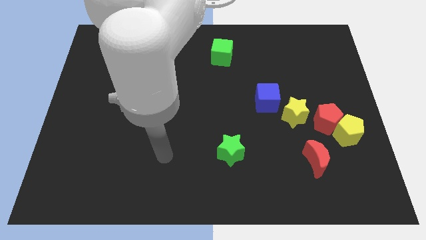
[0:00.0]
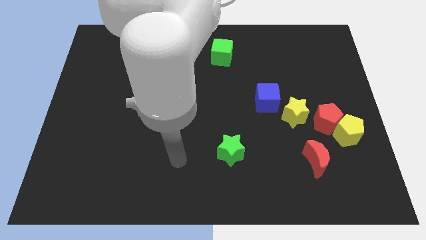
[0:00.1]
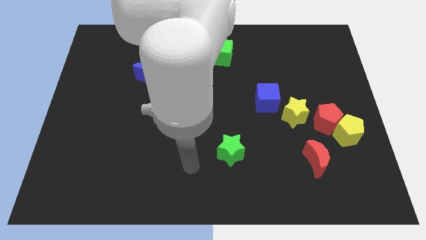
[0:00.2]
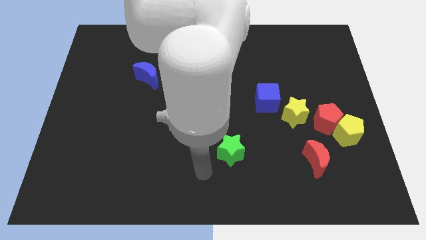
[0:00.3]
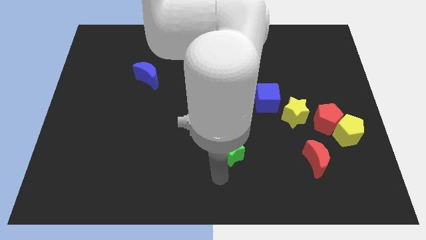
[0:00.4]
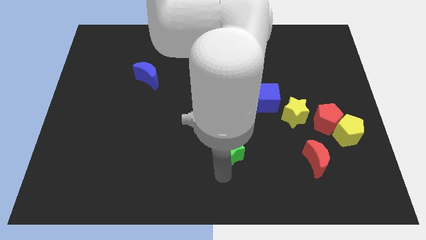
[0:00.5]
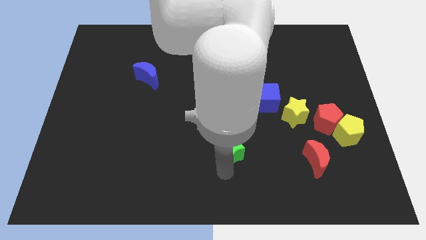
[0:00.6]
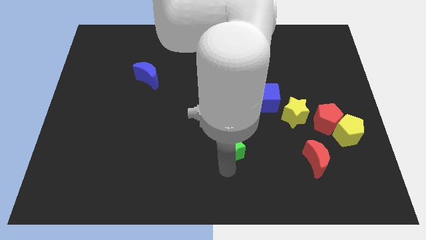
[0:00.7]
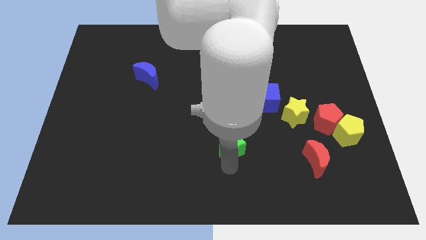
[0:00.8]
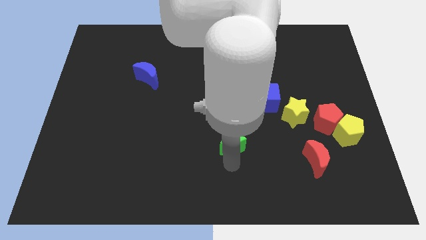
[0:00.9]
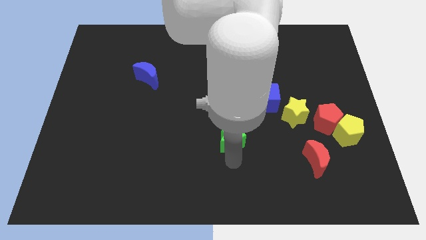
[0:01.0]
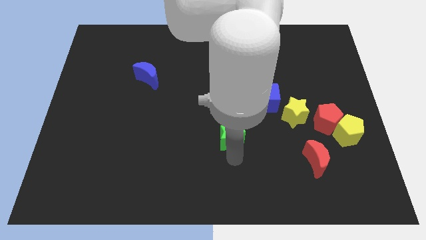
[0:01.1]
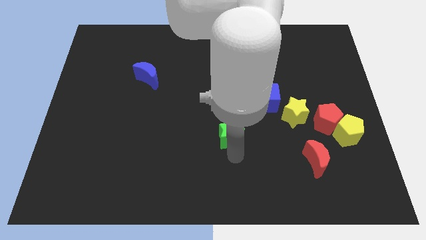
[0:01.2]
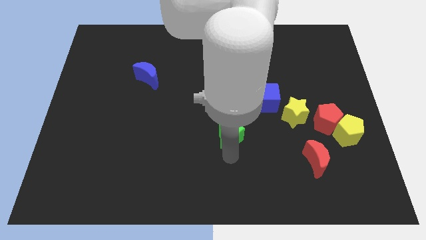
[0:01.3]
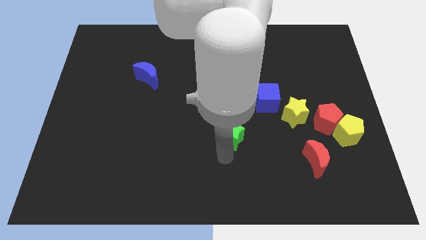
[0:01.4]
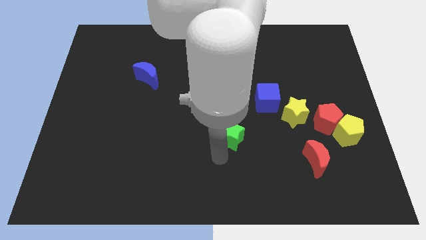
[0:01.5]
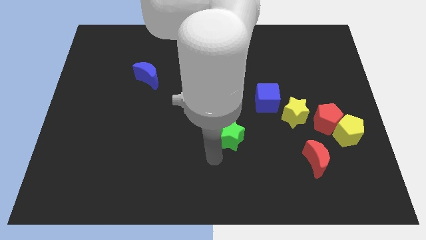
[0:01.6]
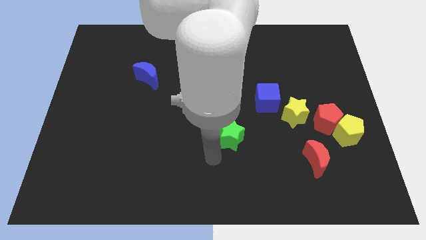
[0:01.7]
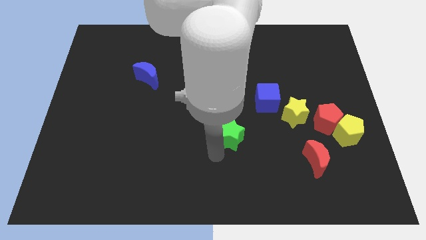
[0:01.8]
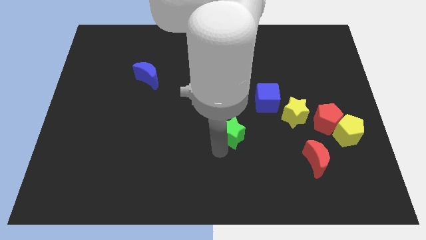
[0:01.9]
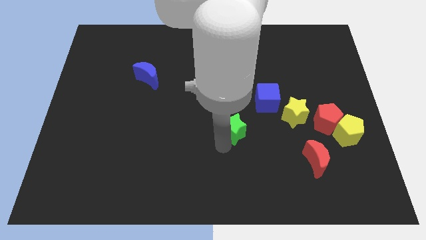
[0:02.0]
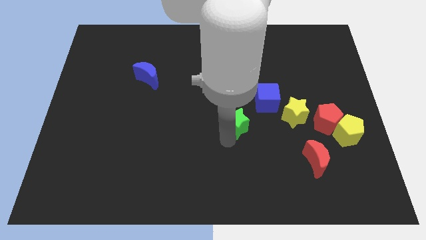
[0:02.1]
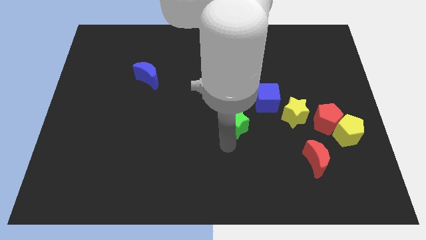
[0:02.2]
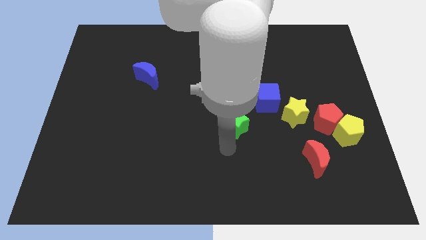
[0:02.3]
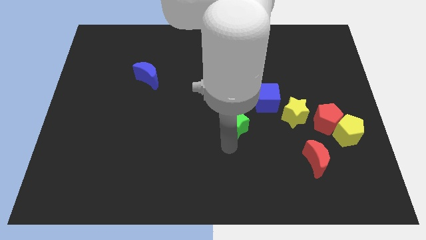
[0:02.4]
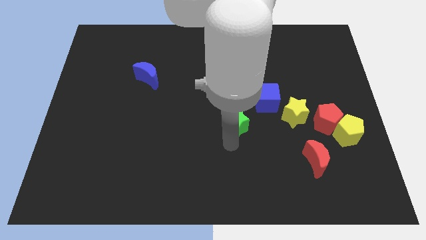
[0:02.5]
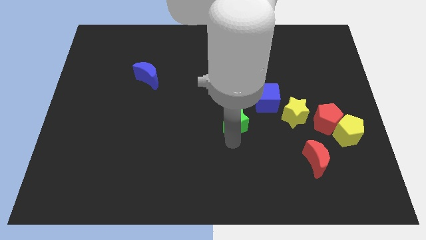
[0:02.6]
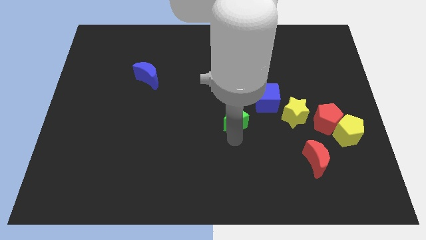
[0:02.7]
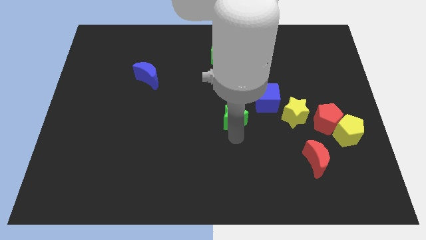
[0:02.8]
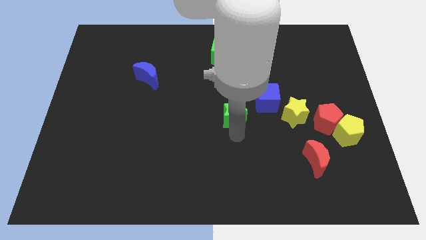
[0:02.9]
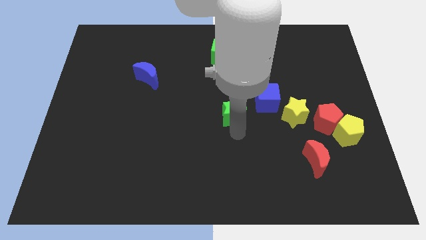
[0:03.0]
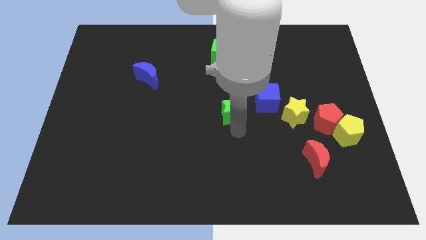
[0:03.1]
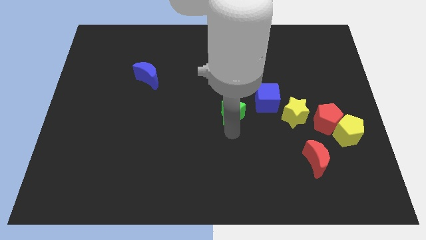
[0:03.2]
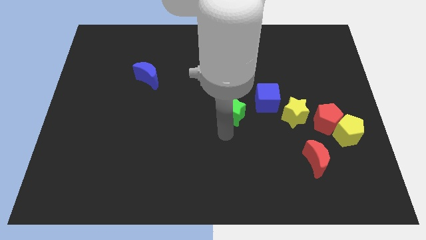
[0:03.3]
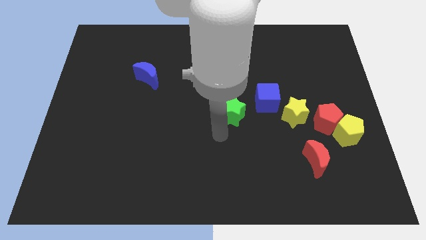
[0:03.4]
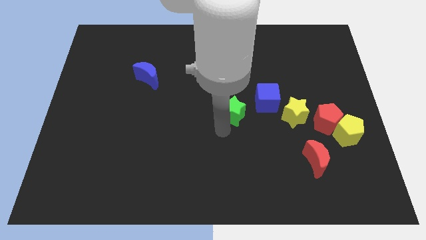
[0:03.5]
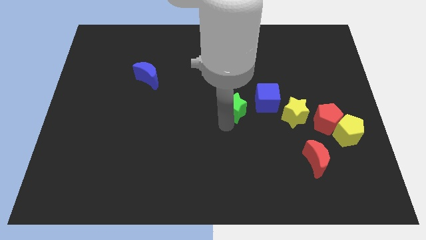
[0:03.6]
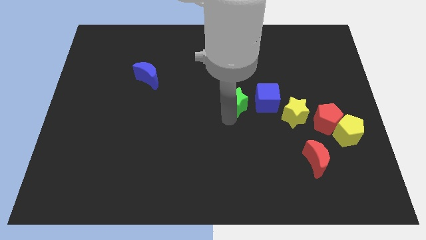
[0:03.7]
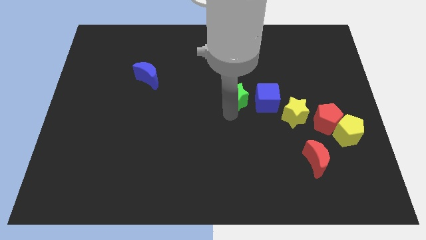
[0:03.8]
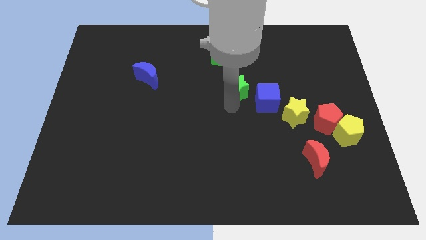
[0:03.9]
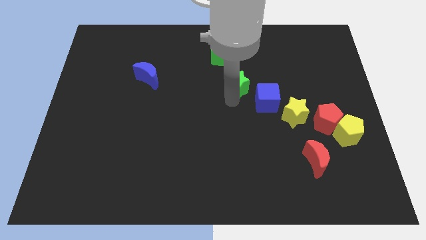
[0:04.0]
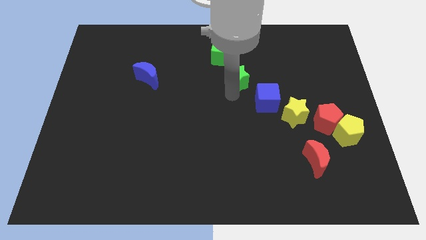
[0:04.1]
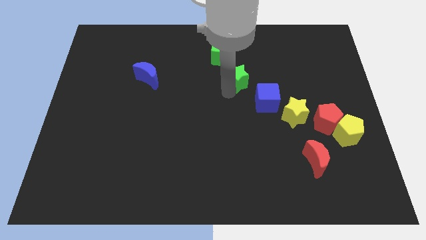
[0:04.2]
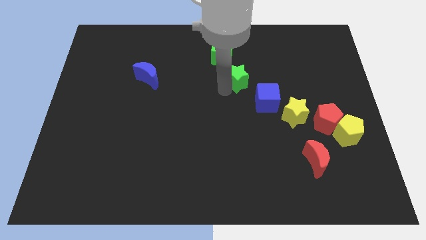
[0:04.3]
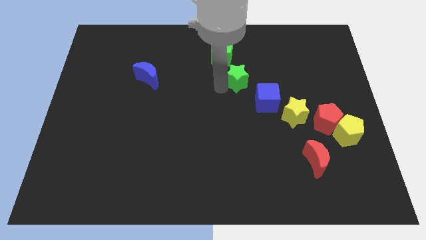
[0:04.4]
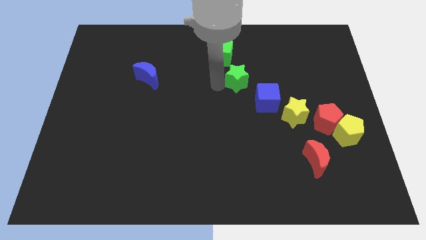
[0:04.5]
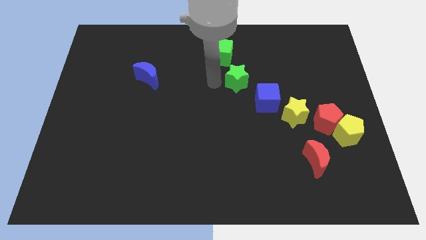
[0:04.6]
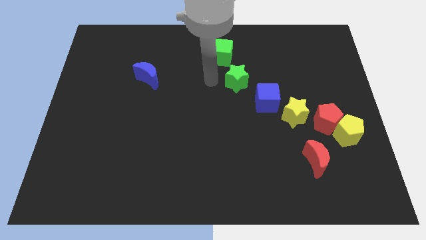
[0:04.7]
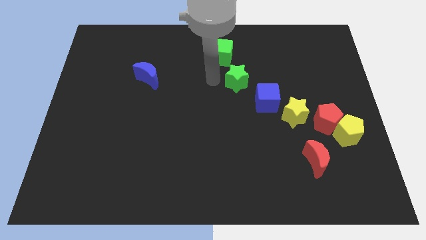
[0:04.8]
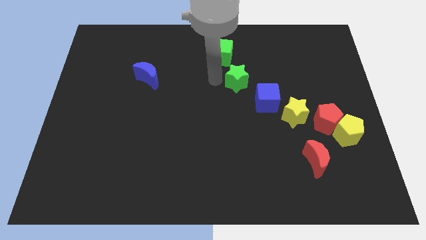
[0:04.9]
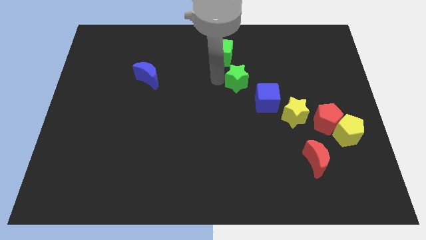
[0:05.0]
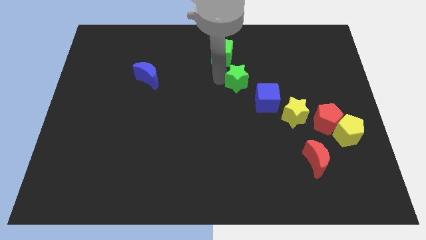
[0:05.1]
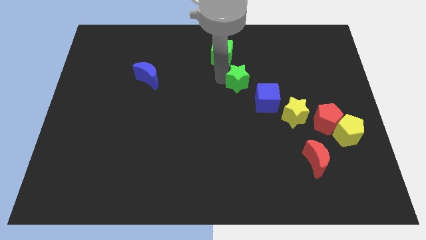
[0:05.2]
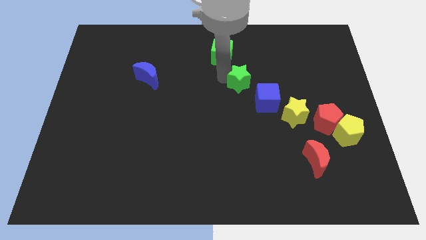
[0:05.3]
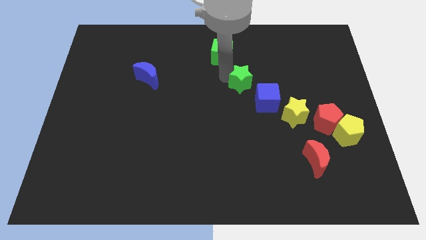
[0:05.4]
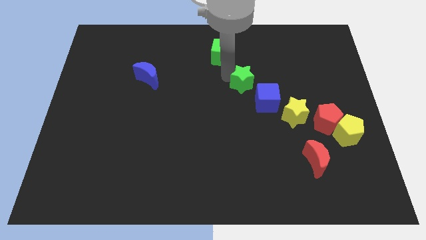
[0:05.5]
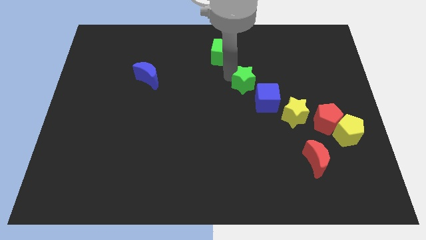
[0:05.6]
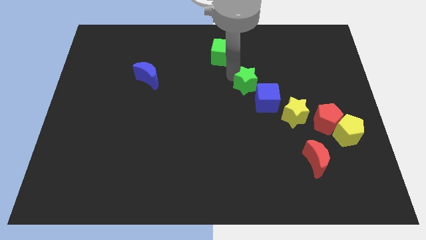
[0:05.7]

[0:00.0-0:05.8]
push the green star to the top side of the blue cube
